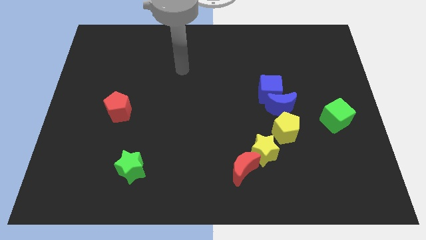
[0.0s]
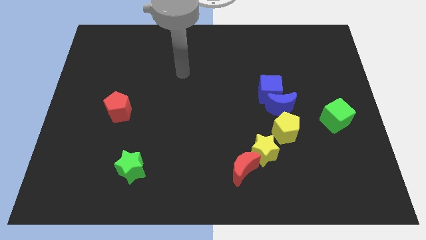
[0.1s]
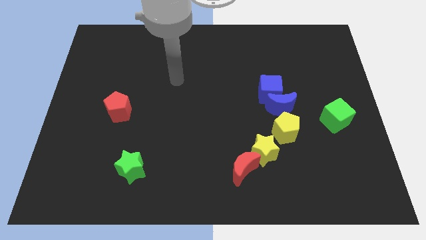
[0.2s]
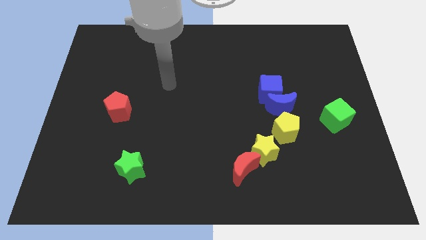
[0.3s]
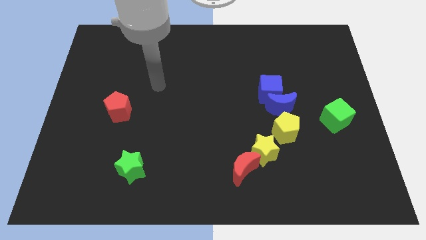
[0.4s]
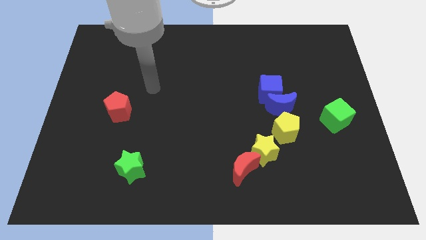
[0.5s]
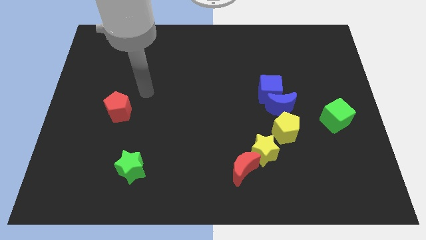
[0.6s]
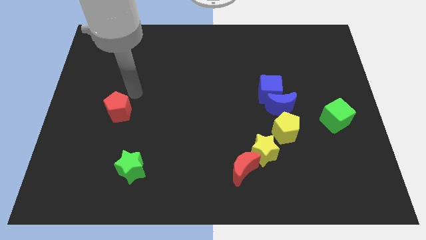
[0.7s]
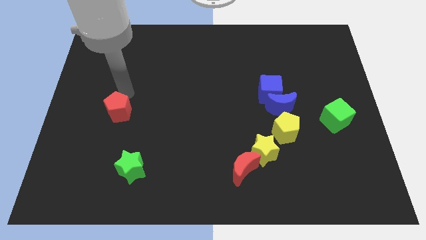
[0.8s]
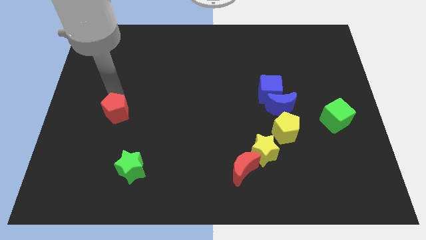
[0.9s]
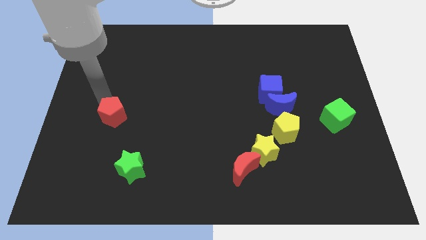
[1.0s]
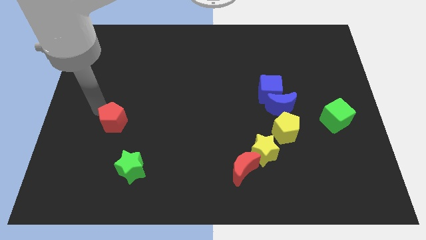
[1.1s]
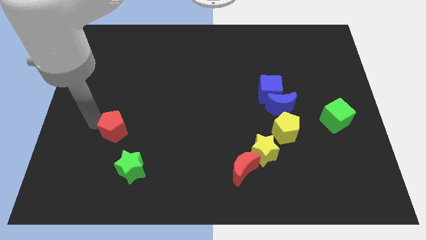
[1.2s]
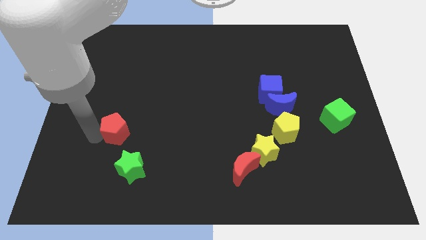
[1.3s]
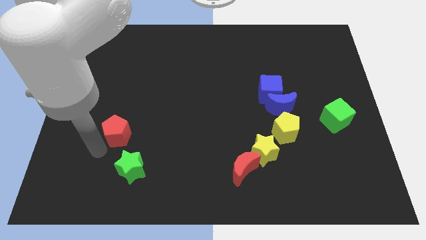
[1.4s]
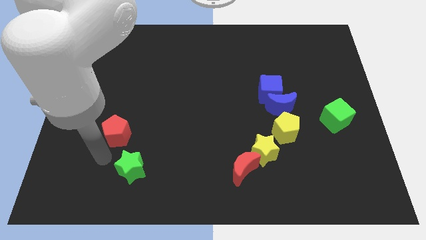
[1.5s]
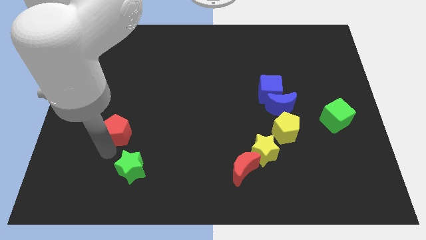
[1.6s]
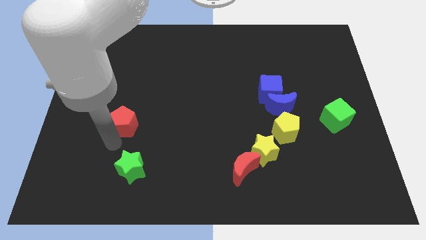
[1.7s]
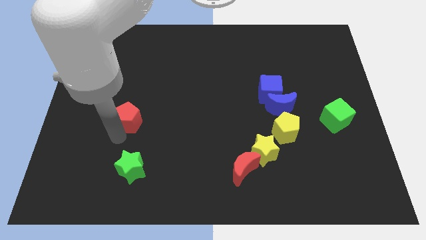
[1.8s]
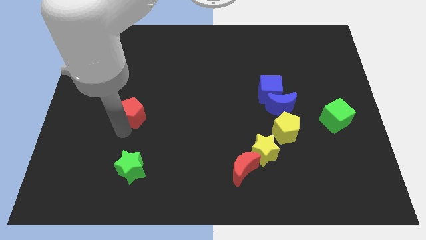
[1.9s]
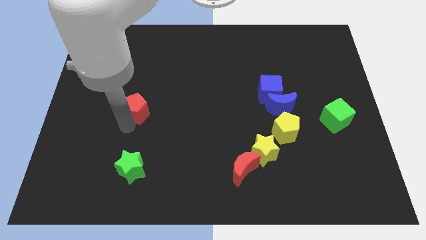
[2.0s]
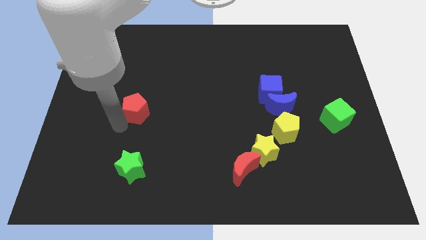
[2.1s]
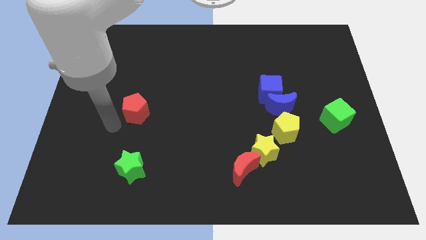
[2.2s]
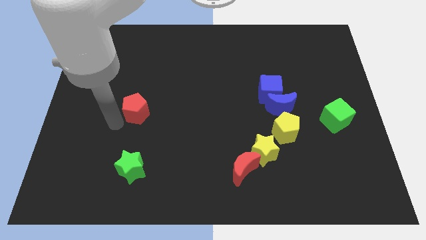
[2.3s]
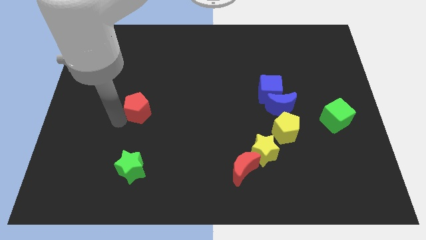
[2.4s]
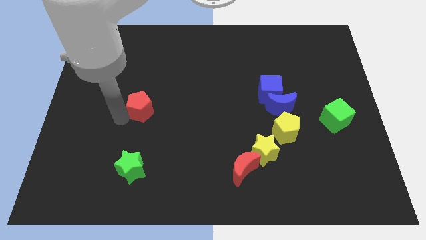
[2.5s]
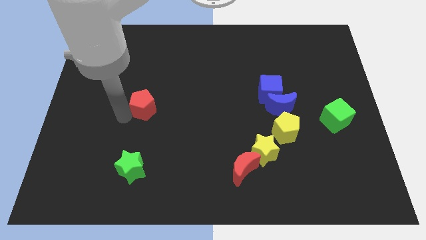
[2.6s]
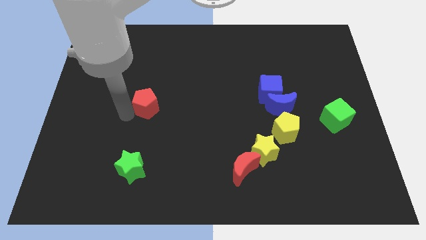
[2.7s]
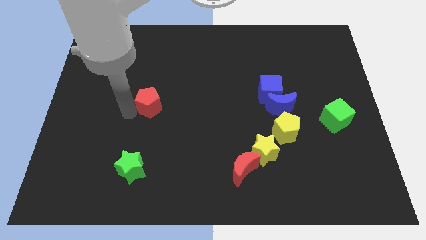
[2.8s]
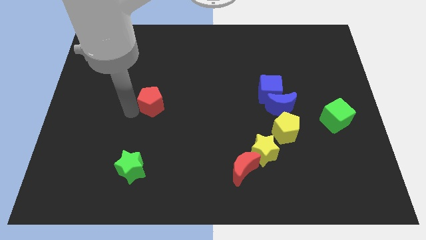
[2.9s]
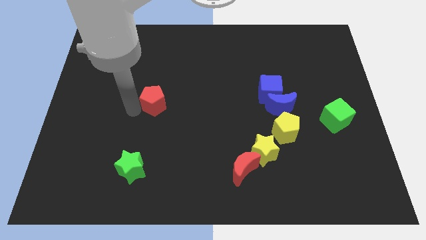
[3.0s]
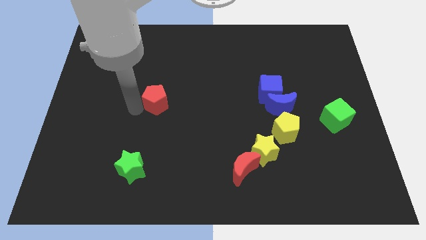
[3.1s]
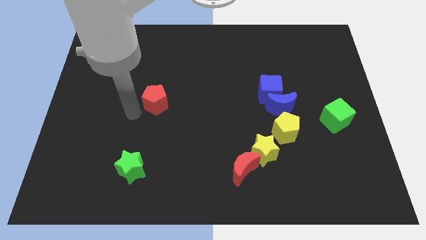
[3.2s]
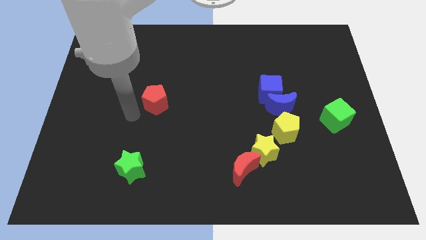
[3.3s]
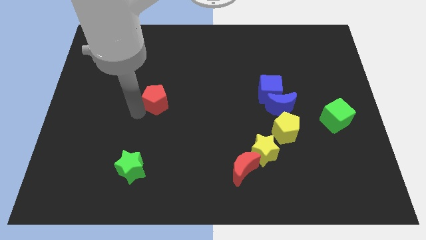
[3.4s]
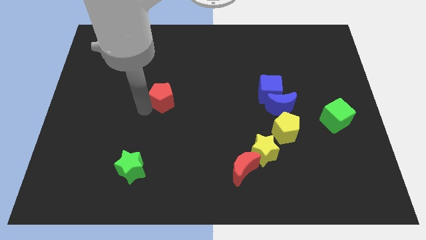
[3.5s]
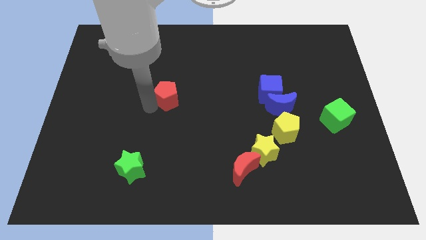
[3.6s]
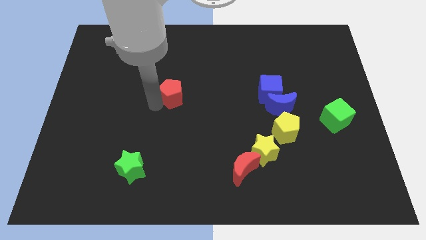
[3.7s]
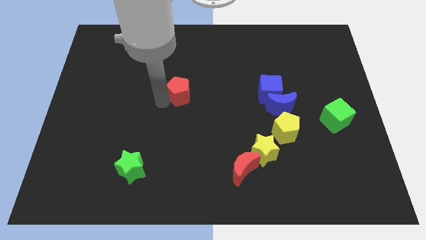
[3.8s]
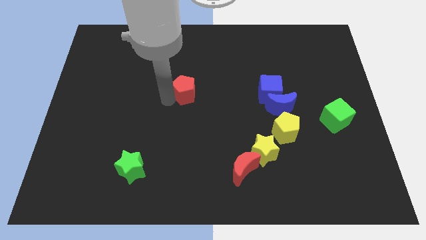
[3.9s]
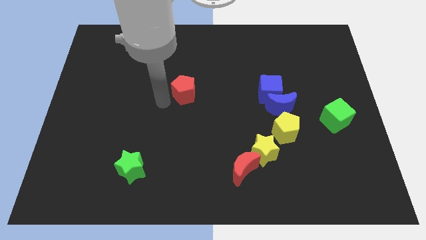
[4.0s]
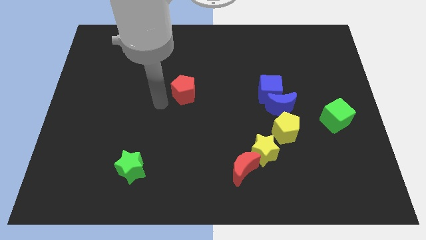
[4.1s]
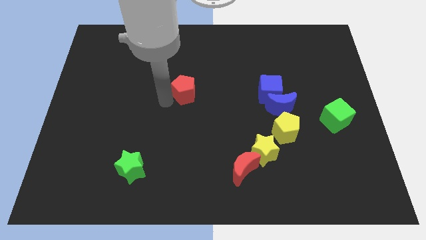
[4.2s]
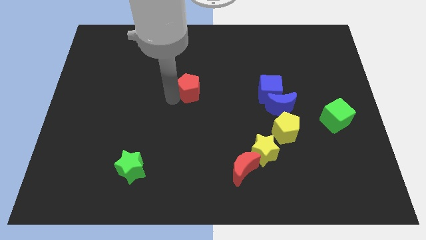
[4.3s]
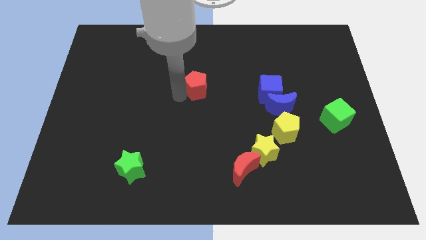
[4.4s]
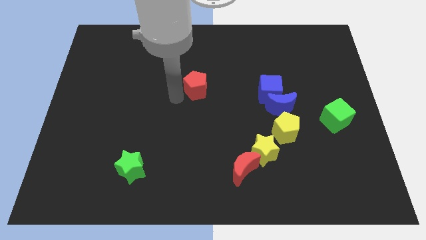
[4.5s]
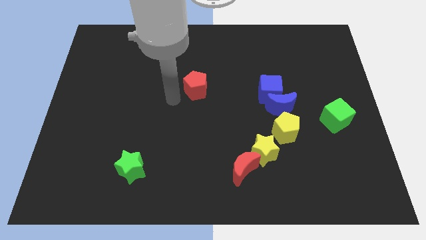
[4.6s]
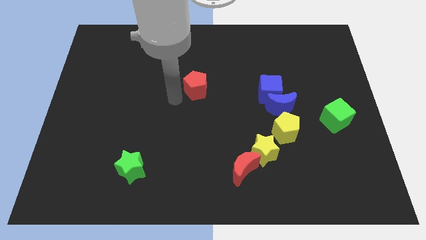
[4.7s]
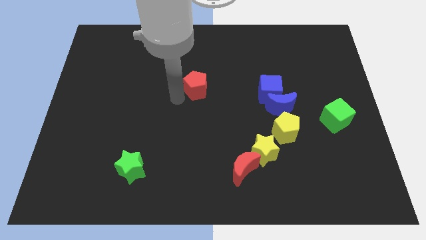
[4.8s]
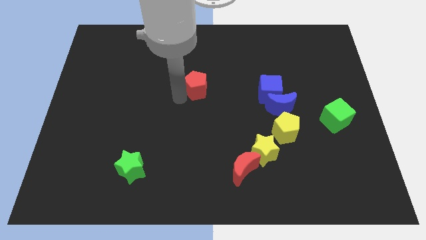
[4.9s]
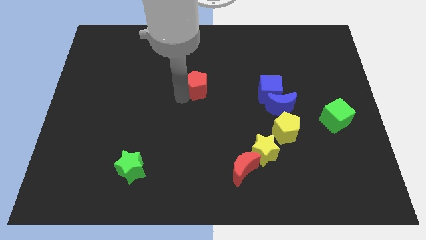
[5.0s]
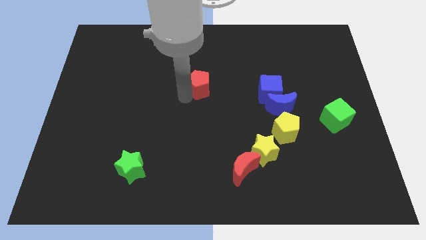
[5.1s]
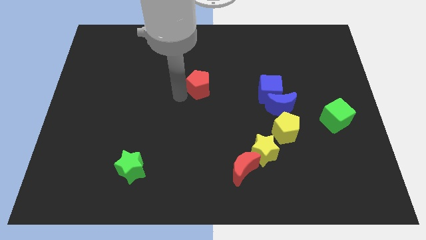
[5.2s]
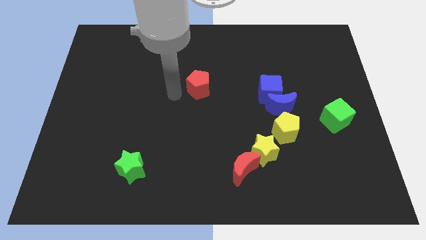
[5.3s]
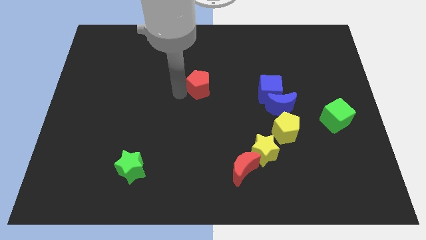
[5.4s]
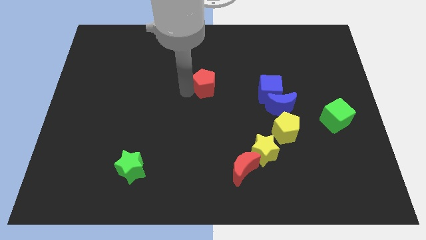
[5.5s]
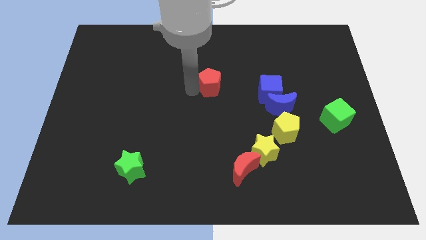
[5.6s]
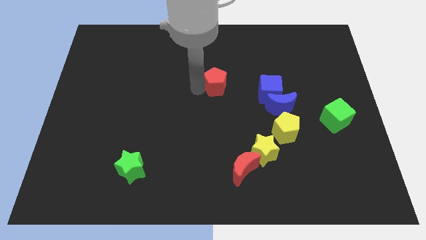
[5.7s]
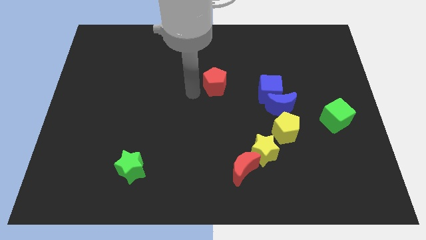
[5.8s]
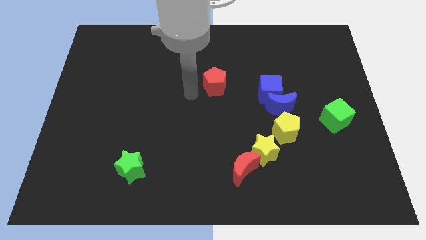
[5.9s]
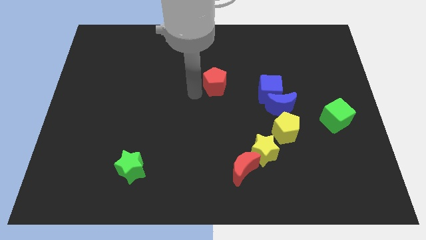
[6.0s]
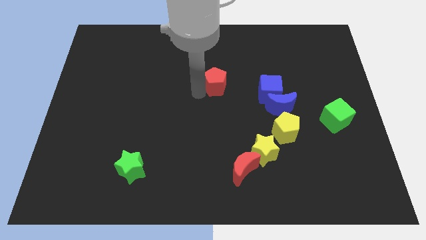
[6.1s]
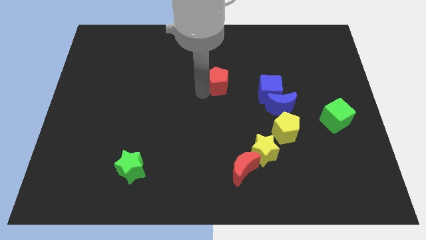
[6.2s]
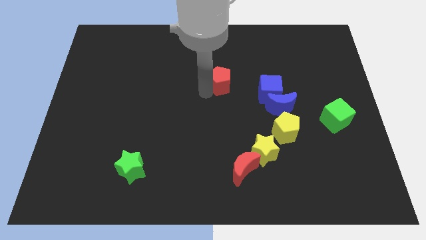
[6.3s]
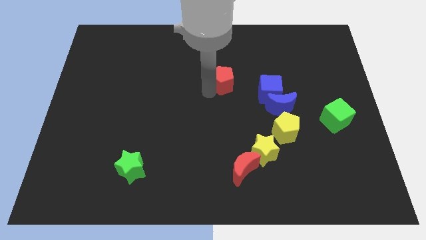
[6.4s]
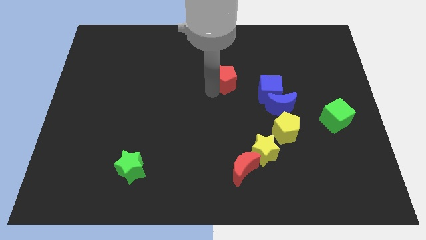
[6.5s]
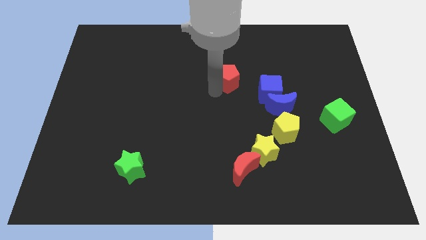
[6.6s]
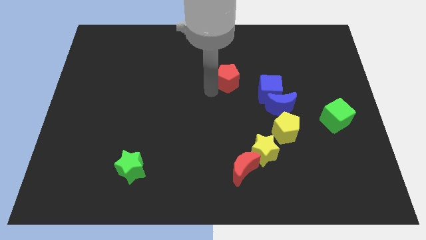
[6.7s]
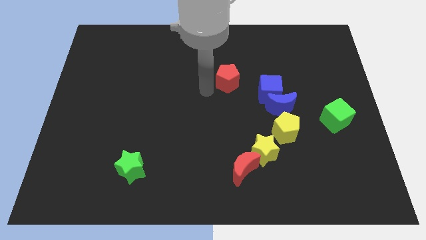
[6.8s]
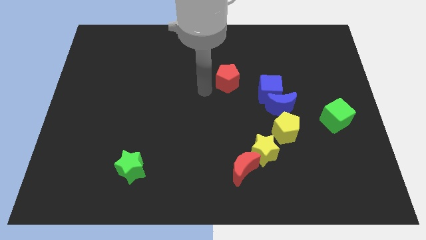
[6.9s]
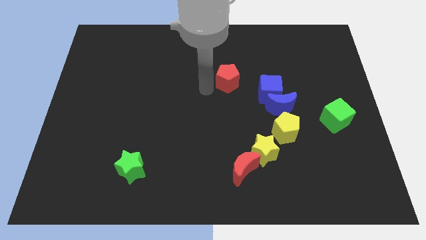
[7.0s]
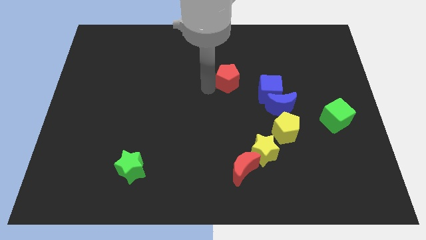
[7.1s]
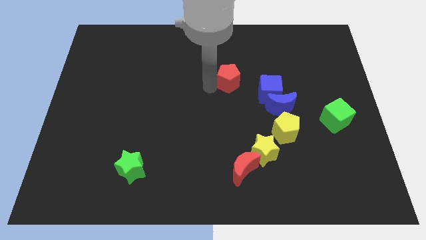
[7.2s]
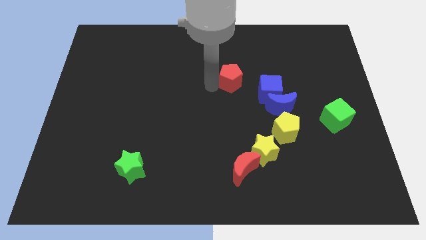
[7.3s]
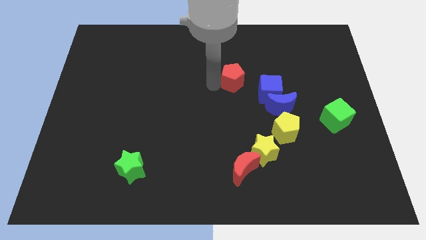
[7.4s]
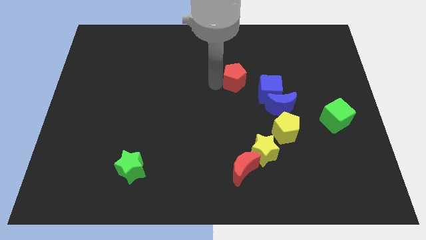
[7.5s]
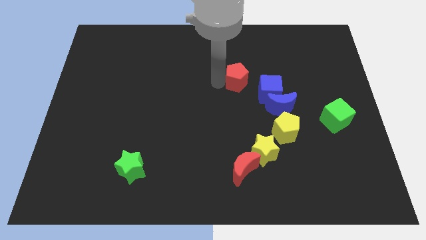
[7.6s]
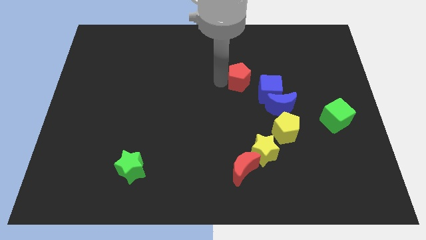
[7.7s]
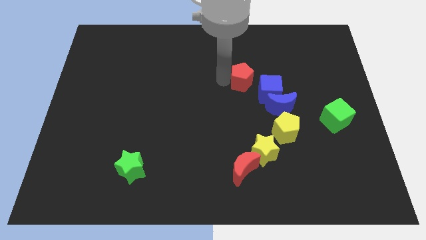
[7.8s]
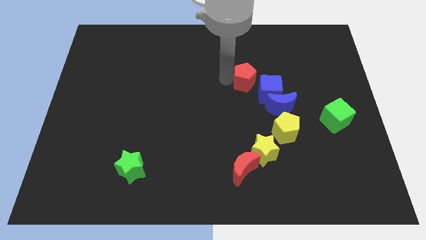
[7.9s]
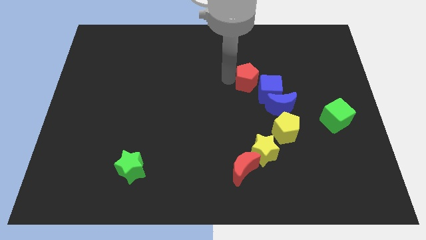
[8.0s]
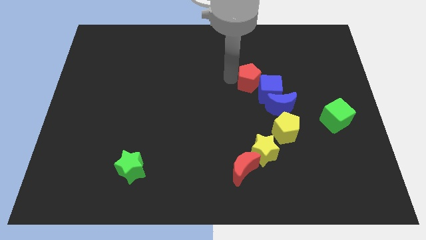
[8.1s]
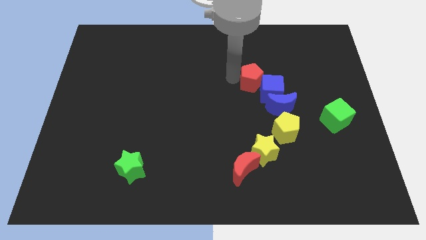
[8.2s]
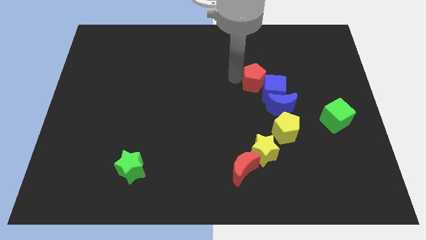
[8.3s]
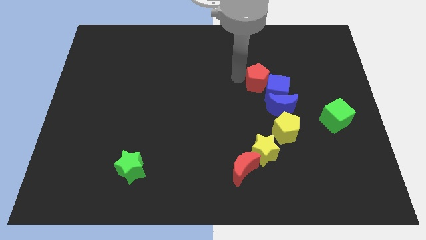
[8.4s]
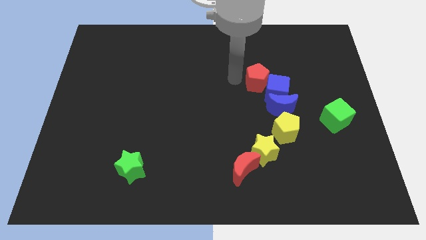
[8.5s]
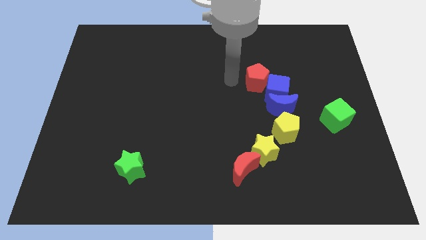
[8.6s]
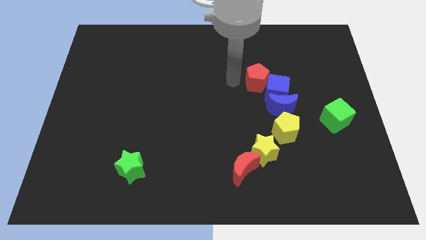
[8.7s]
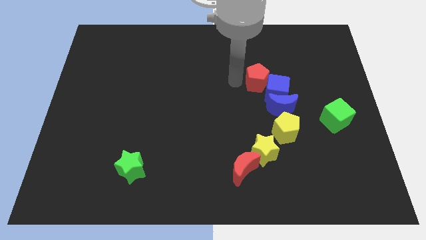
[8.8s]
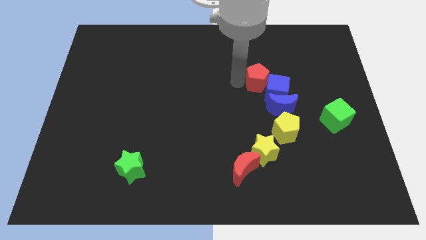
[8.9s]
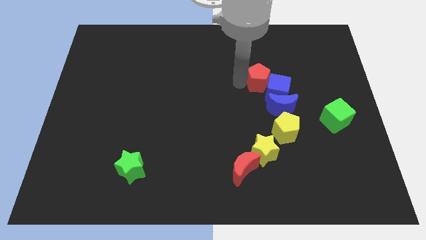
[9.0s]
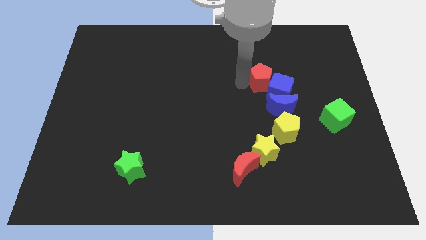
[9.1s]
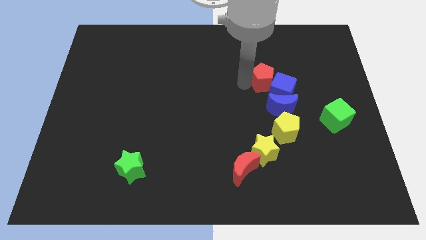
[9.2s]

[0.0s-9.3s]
slide the red pentagon to the top of the yellow pentagon
